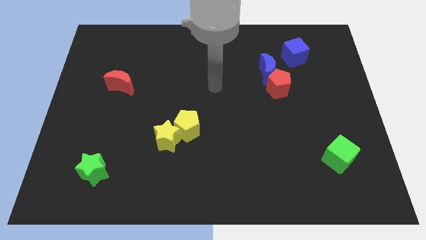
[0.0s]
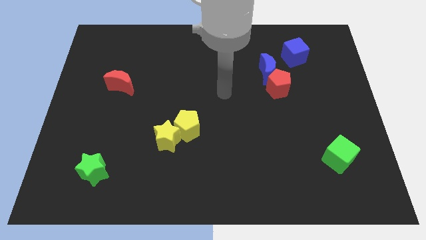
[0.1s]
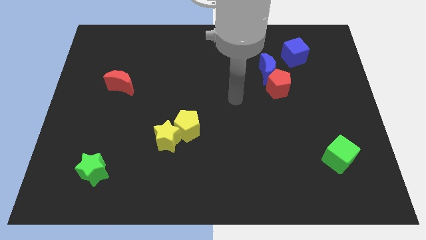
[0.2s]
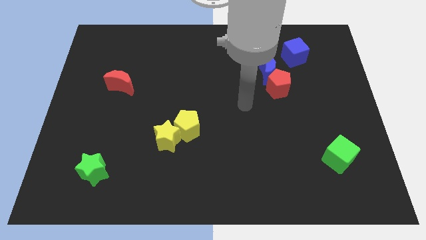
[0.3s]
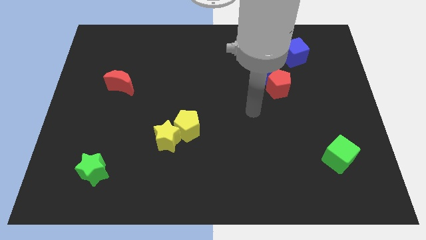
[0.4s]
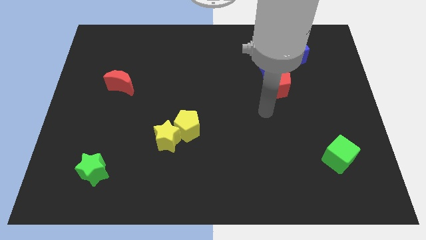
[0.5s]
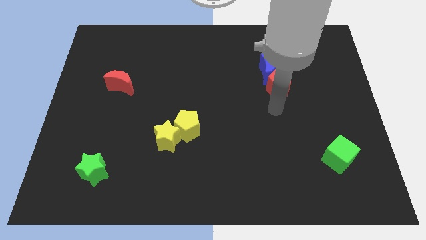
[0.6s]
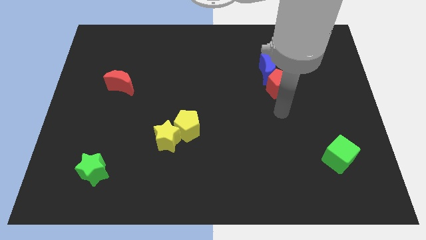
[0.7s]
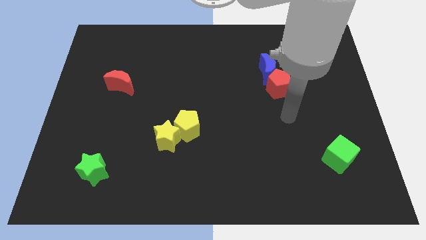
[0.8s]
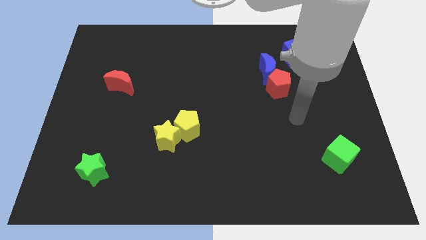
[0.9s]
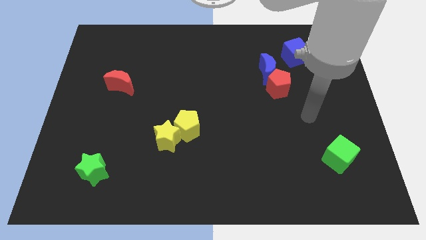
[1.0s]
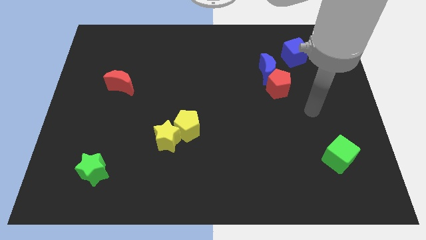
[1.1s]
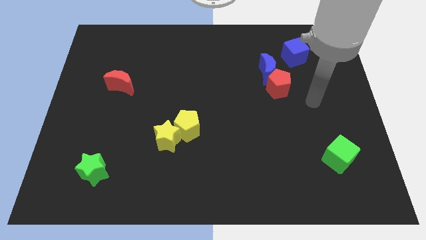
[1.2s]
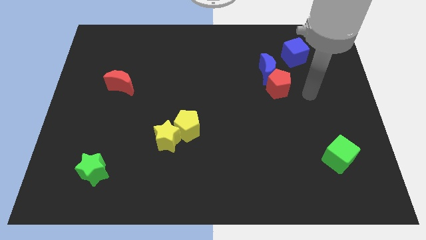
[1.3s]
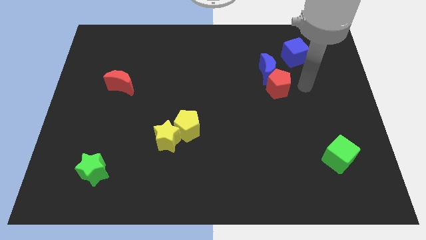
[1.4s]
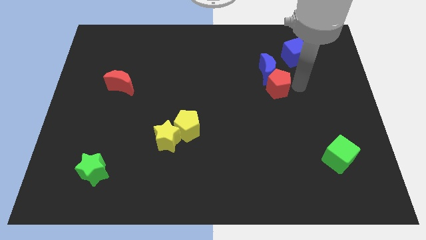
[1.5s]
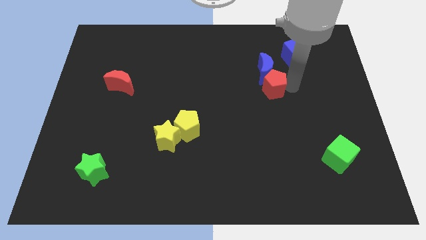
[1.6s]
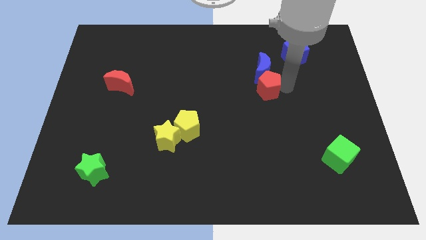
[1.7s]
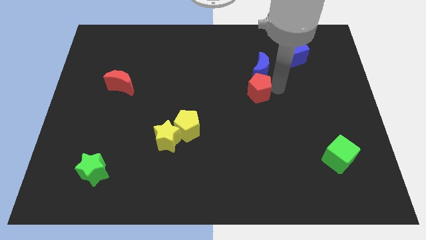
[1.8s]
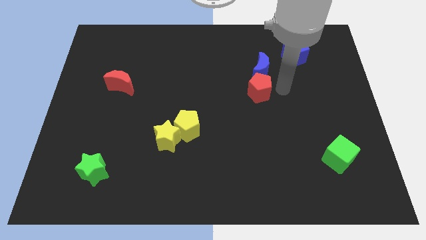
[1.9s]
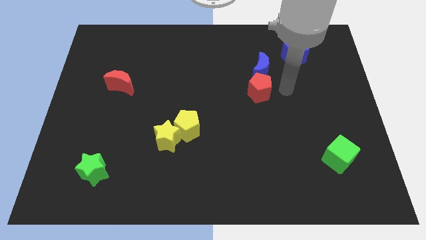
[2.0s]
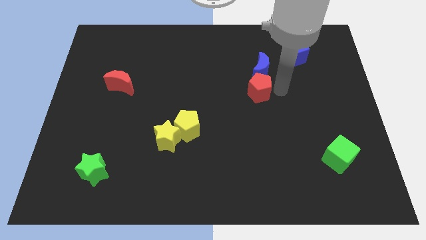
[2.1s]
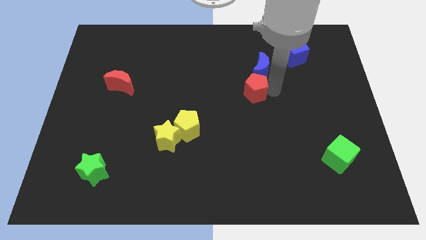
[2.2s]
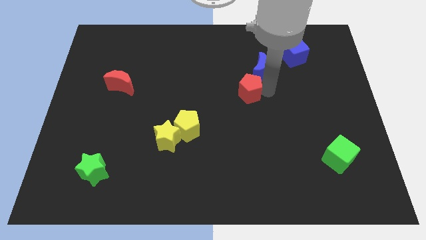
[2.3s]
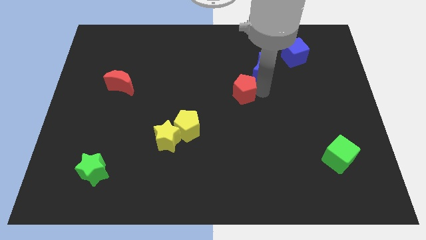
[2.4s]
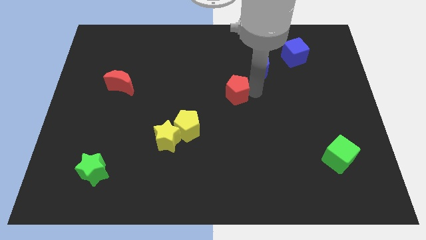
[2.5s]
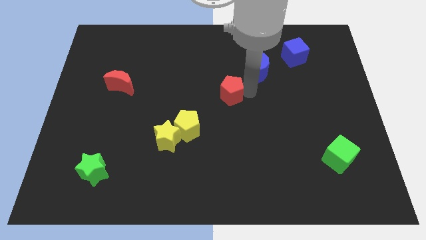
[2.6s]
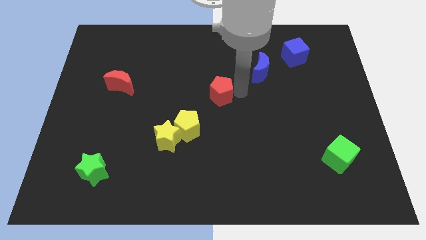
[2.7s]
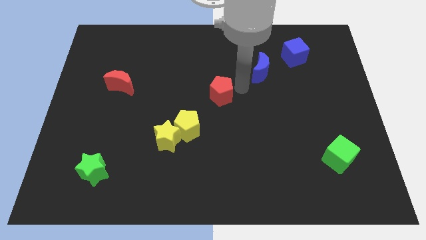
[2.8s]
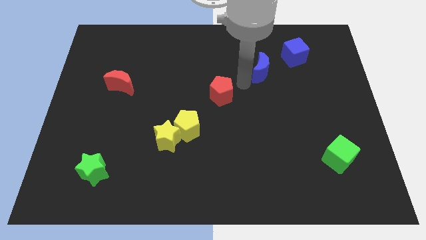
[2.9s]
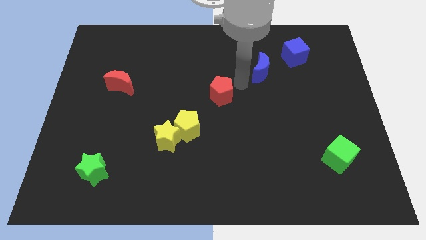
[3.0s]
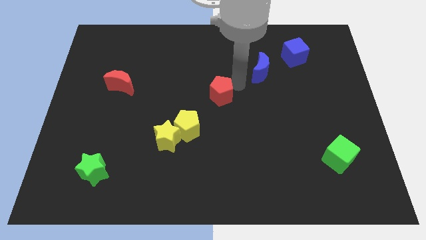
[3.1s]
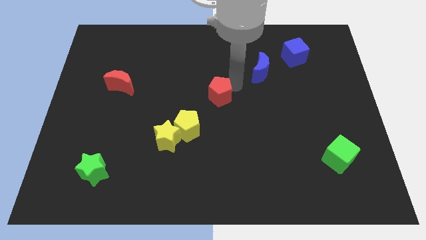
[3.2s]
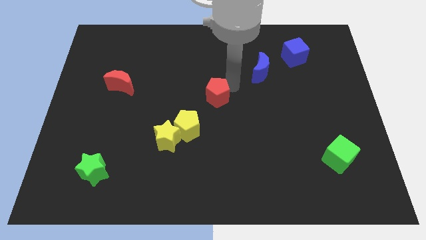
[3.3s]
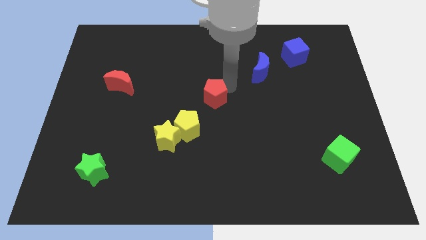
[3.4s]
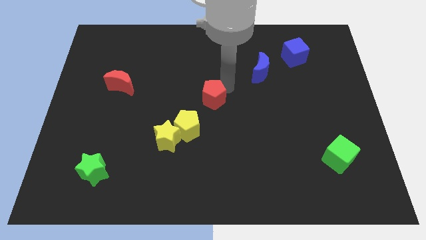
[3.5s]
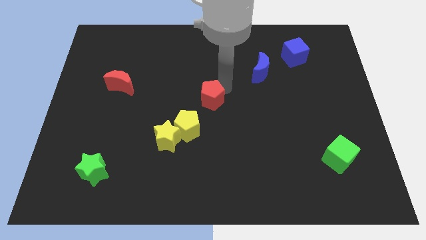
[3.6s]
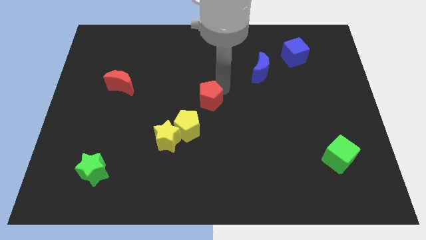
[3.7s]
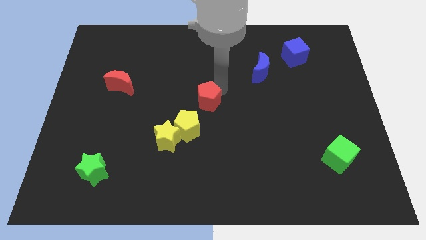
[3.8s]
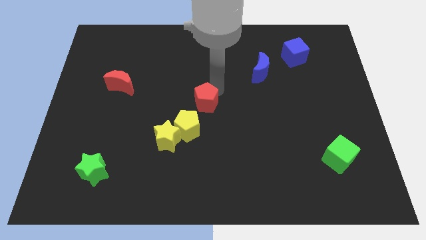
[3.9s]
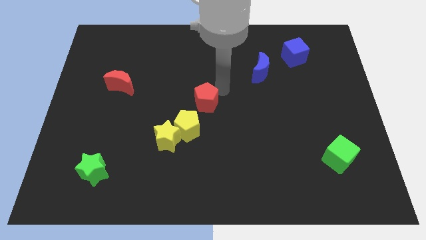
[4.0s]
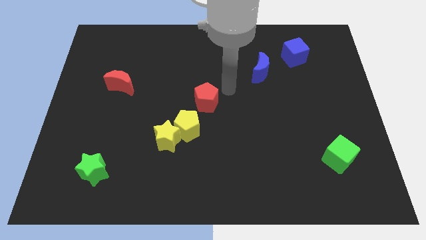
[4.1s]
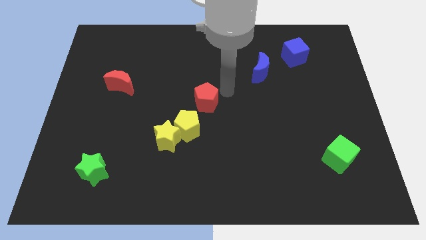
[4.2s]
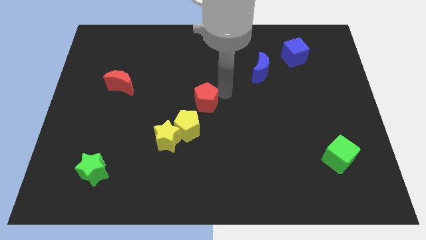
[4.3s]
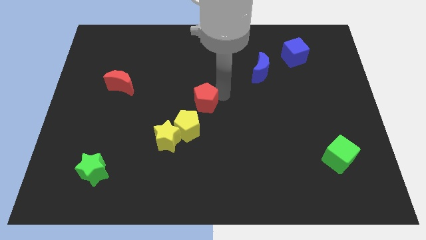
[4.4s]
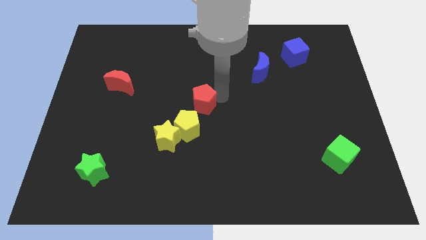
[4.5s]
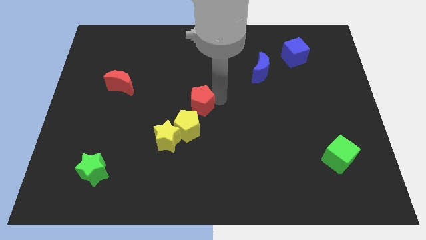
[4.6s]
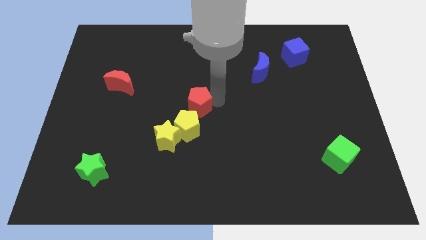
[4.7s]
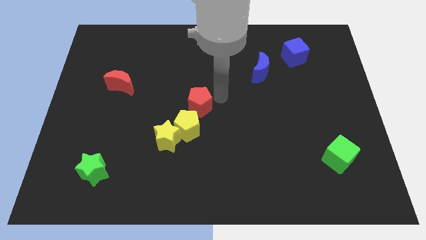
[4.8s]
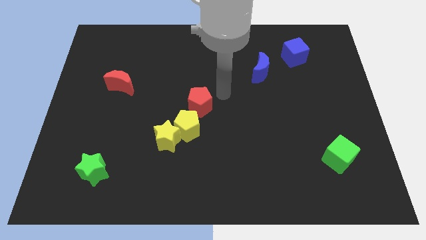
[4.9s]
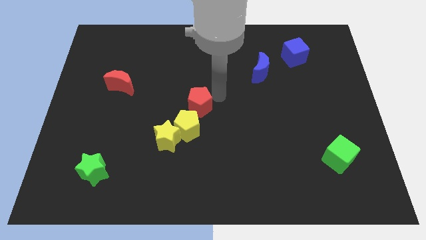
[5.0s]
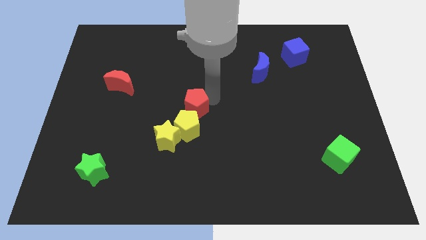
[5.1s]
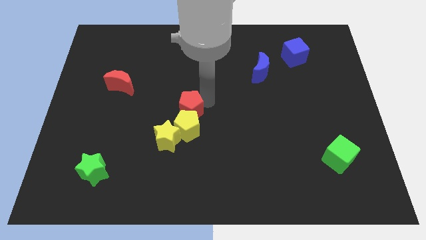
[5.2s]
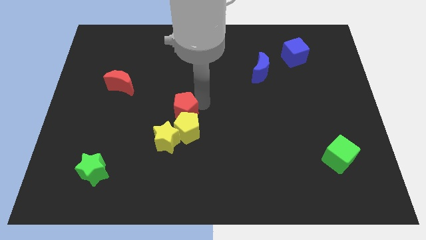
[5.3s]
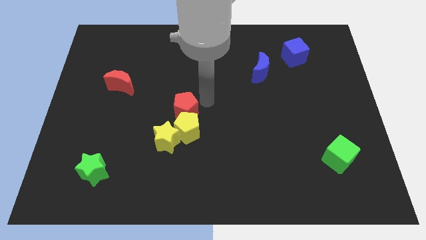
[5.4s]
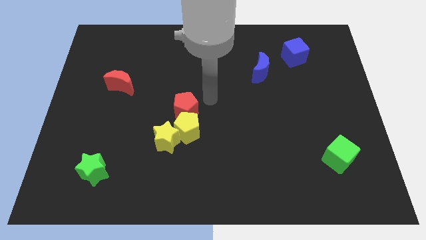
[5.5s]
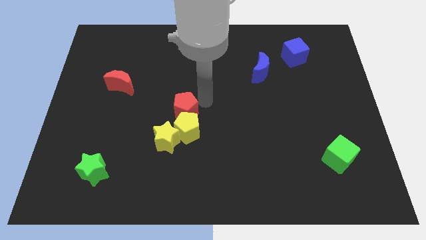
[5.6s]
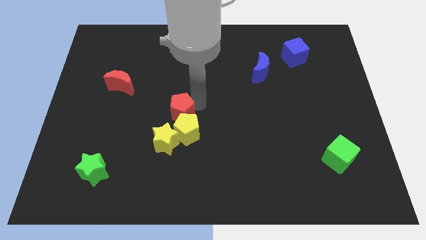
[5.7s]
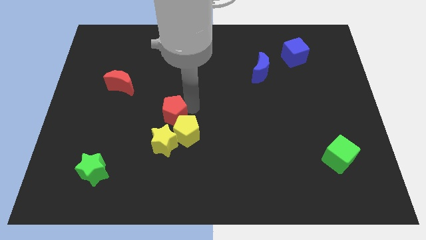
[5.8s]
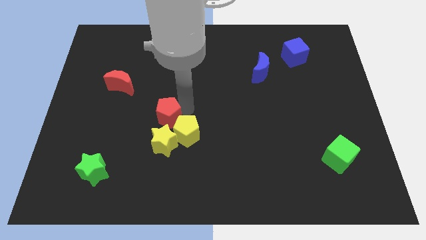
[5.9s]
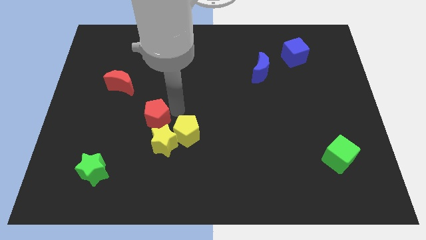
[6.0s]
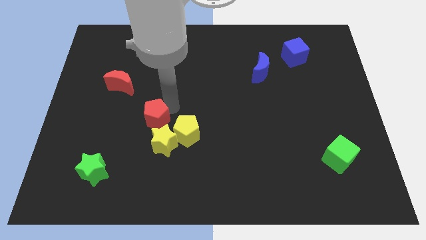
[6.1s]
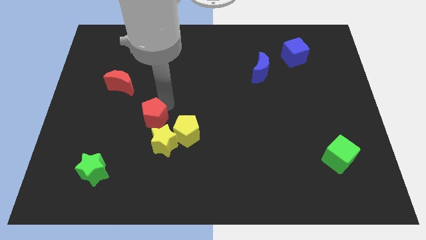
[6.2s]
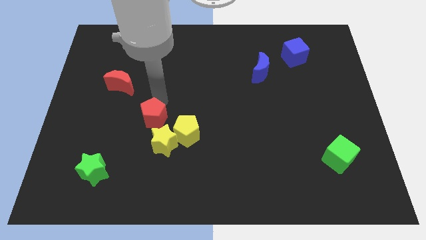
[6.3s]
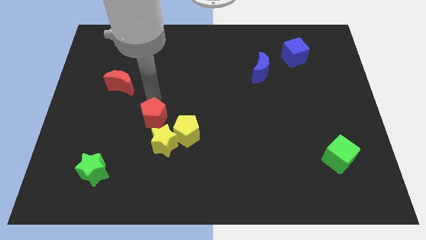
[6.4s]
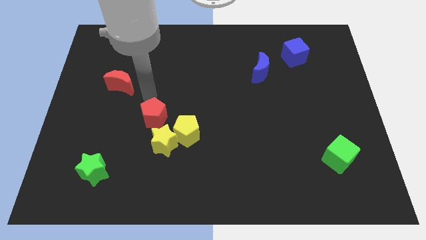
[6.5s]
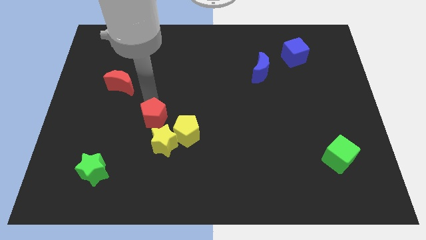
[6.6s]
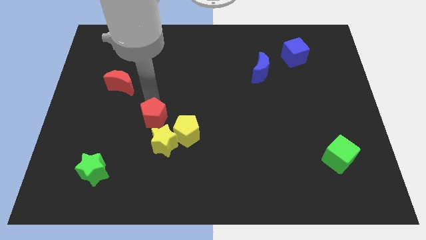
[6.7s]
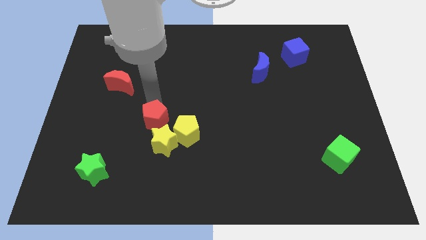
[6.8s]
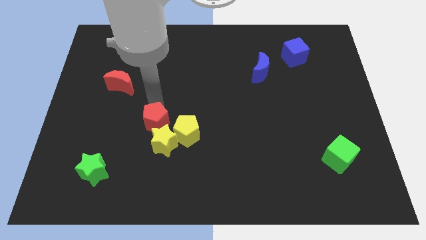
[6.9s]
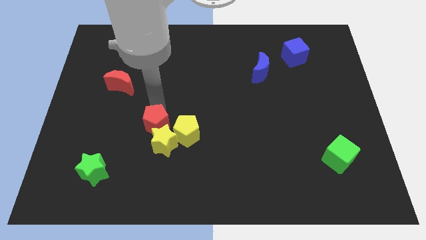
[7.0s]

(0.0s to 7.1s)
move the red pentagon to the yellow star

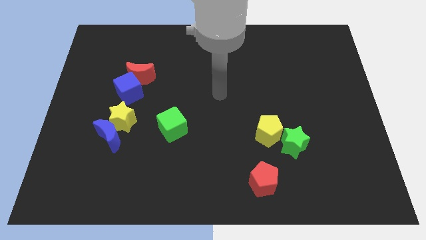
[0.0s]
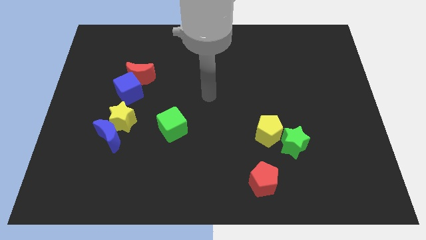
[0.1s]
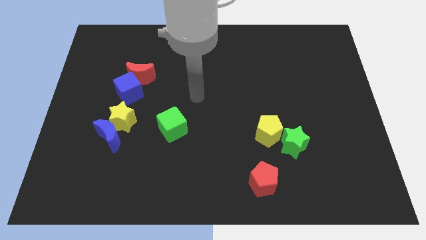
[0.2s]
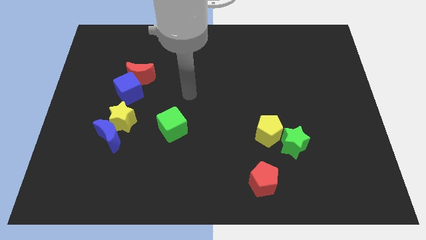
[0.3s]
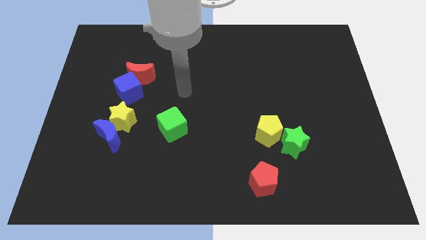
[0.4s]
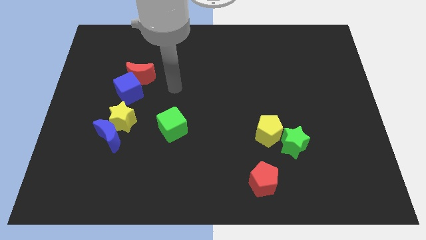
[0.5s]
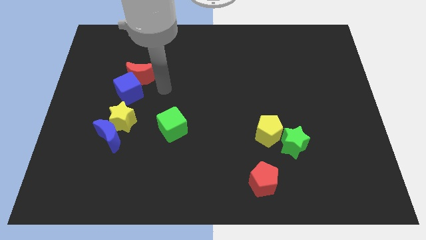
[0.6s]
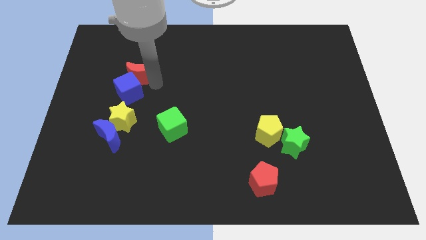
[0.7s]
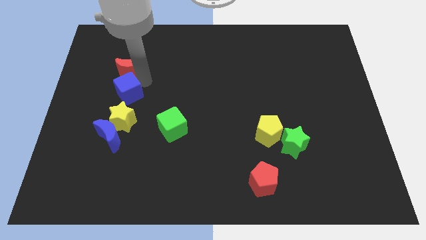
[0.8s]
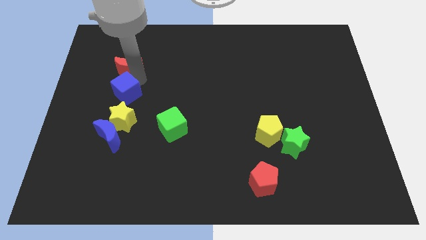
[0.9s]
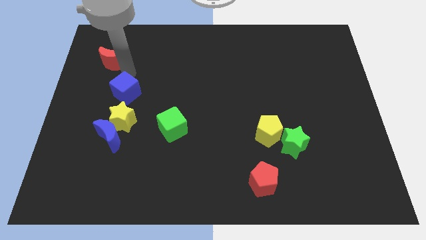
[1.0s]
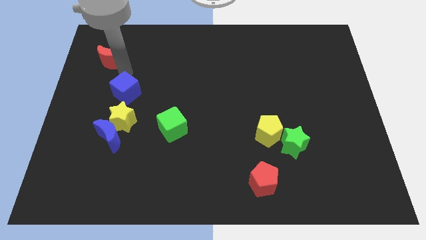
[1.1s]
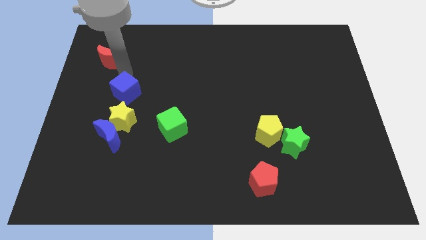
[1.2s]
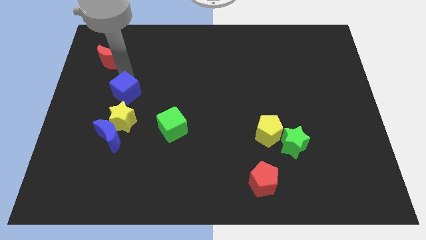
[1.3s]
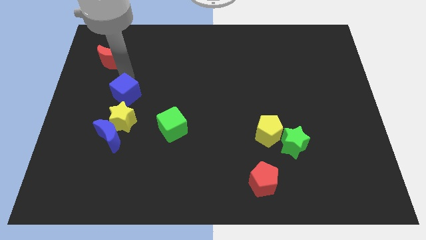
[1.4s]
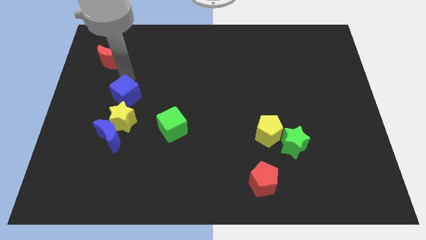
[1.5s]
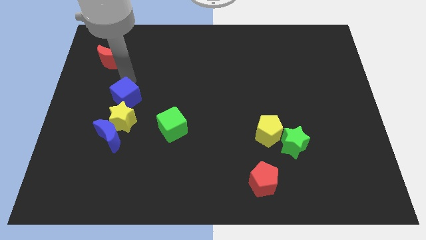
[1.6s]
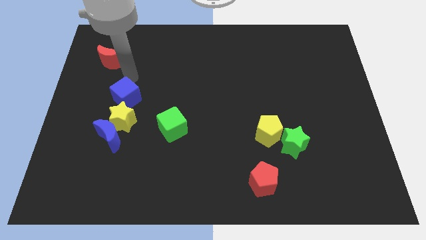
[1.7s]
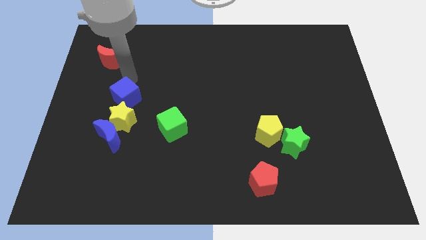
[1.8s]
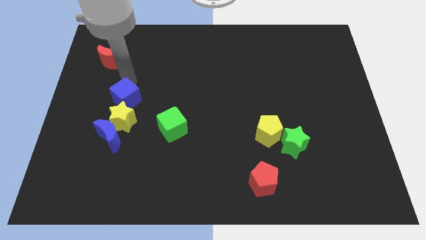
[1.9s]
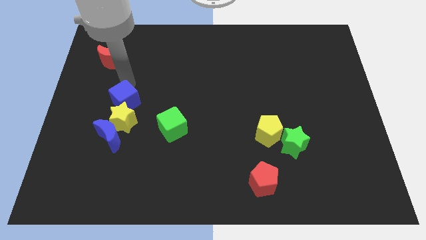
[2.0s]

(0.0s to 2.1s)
slide the blue cube towards the yellow star
